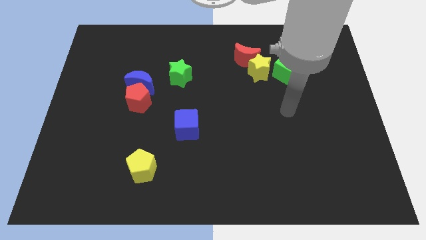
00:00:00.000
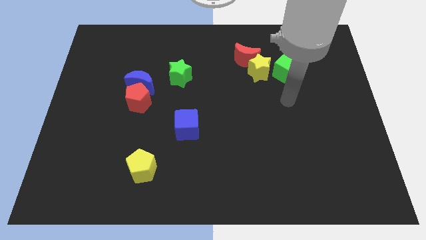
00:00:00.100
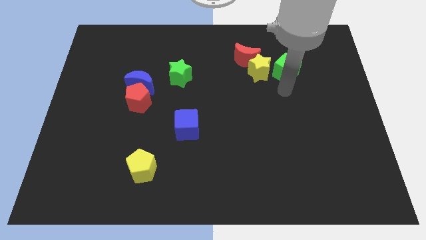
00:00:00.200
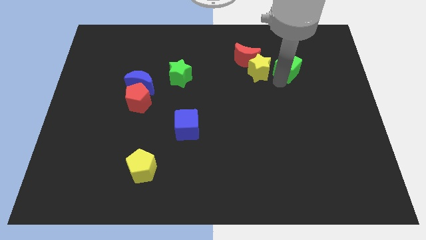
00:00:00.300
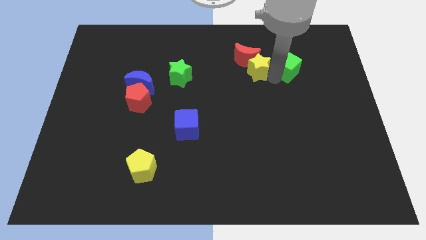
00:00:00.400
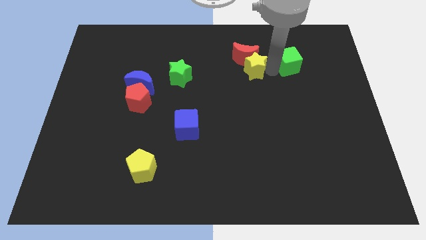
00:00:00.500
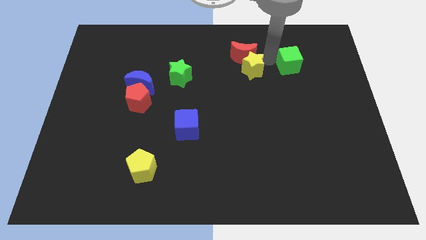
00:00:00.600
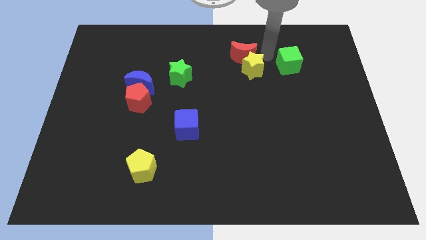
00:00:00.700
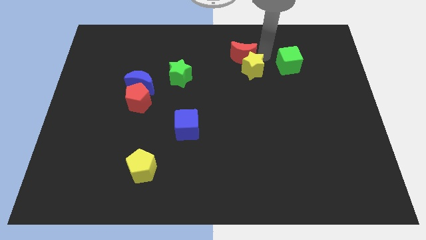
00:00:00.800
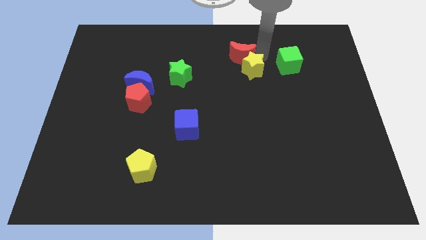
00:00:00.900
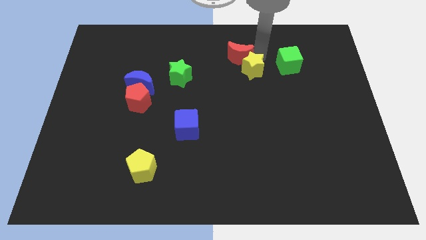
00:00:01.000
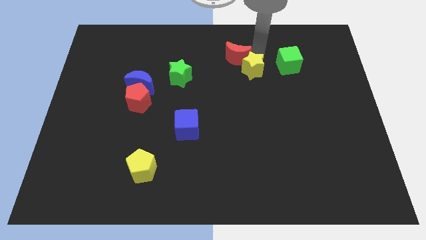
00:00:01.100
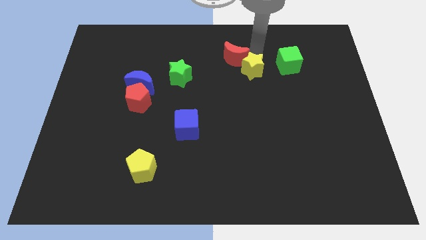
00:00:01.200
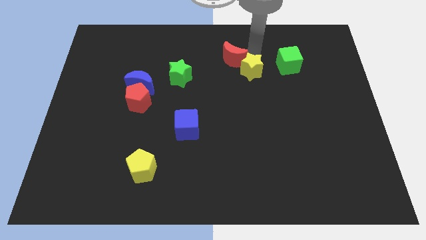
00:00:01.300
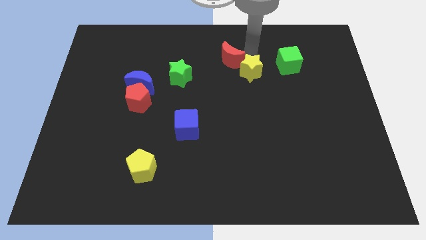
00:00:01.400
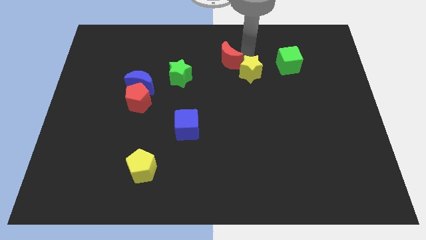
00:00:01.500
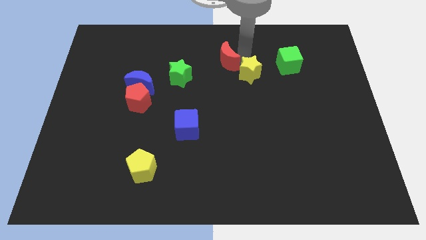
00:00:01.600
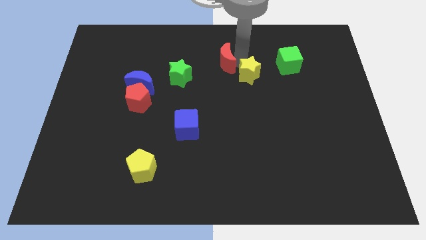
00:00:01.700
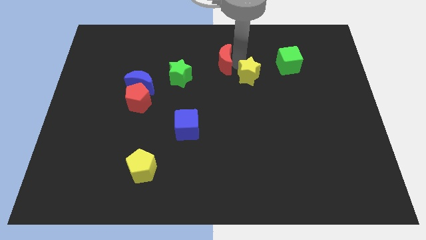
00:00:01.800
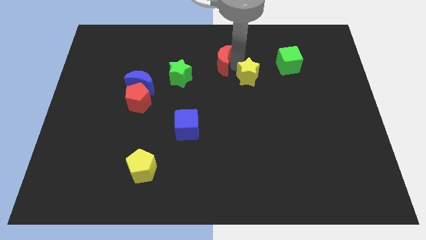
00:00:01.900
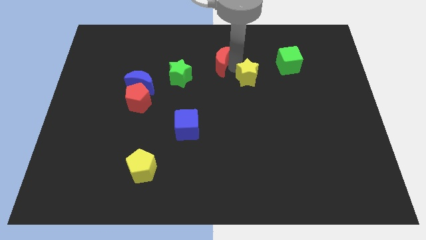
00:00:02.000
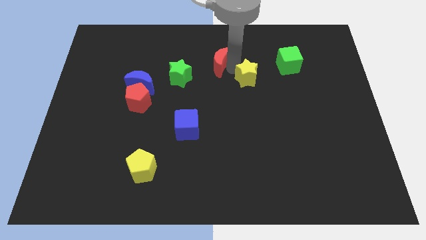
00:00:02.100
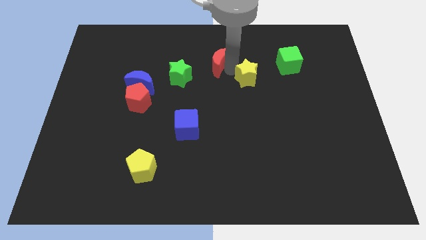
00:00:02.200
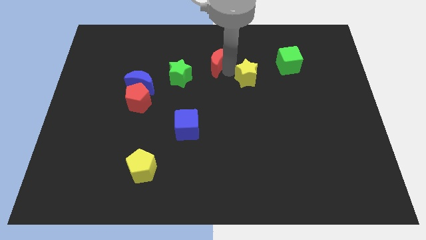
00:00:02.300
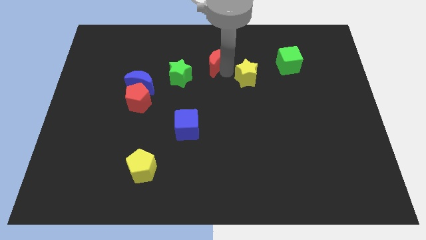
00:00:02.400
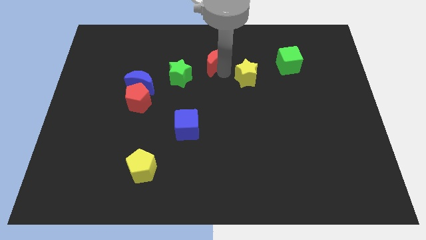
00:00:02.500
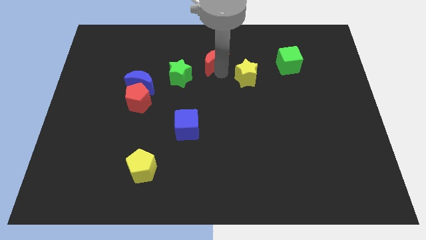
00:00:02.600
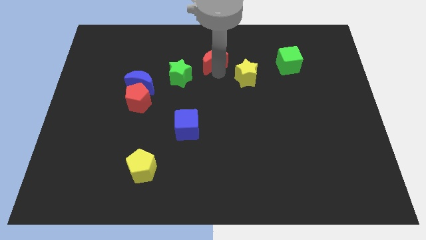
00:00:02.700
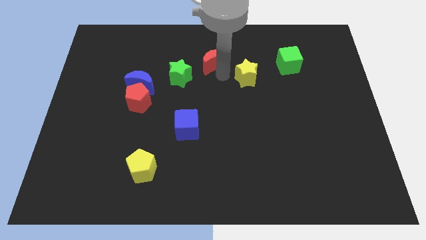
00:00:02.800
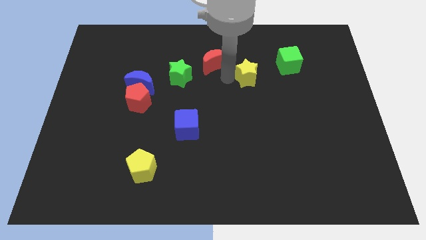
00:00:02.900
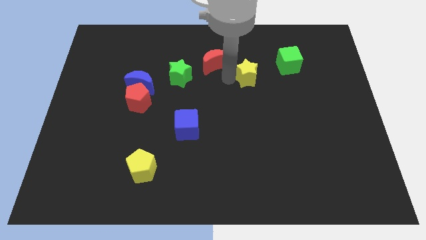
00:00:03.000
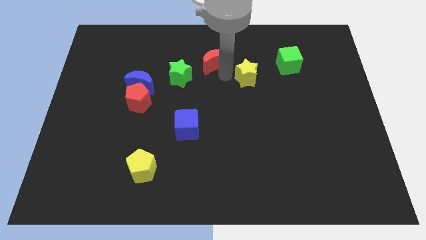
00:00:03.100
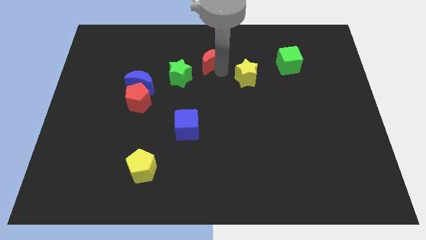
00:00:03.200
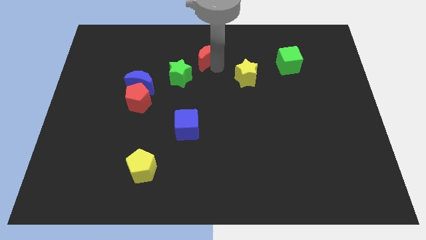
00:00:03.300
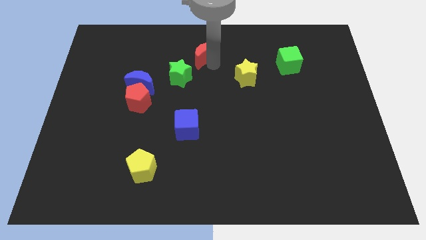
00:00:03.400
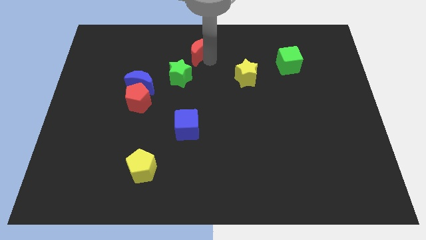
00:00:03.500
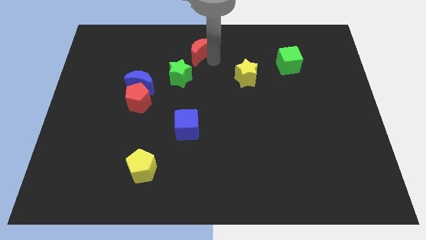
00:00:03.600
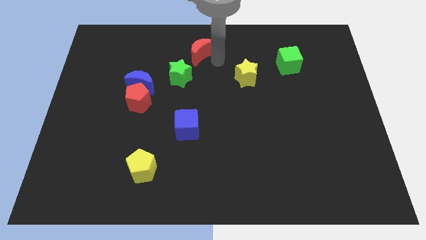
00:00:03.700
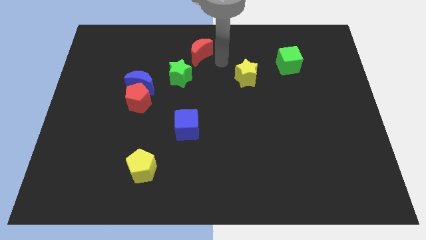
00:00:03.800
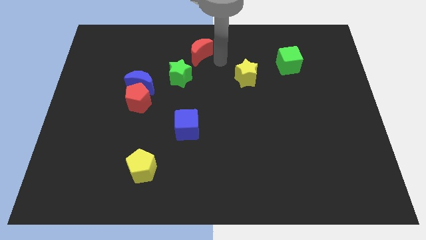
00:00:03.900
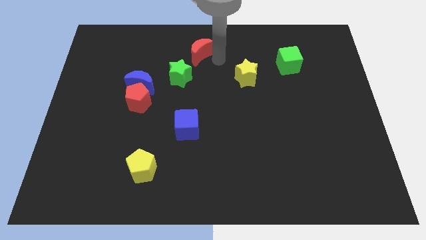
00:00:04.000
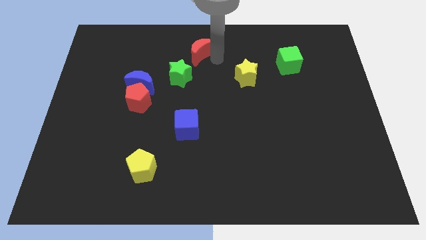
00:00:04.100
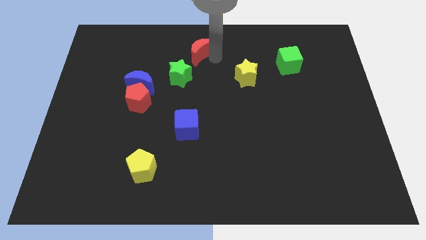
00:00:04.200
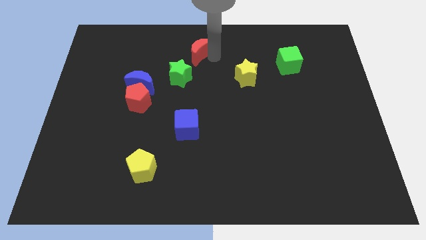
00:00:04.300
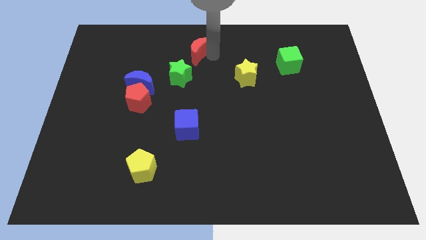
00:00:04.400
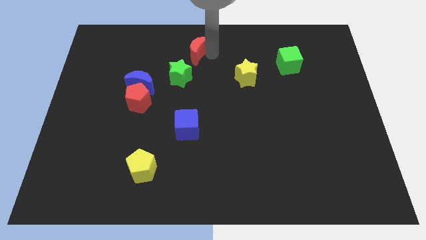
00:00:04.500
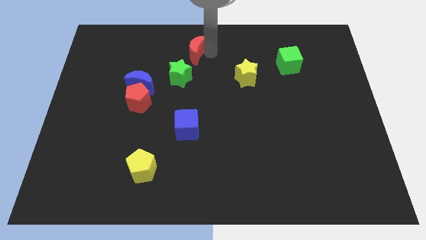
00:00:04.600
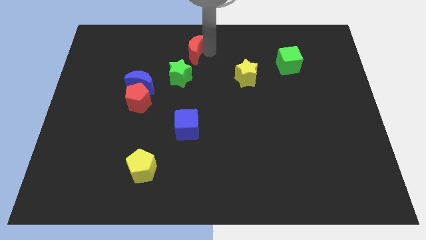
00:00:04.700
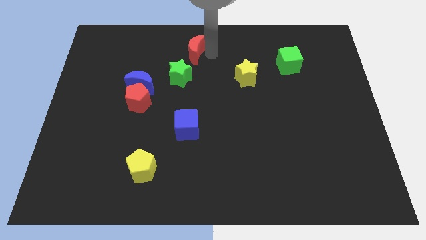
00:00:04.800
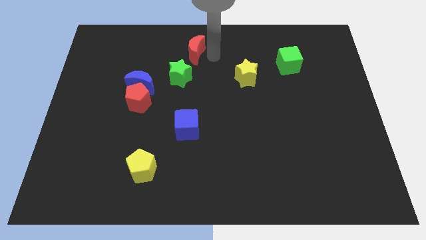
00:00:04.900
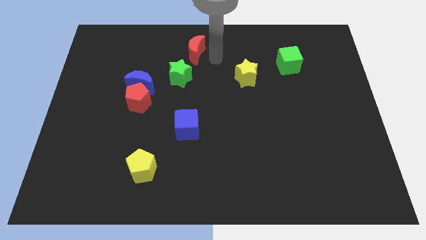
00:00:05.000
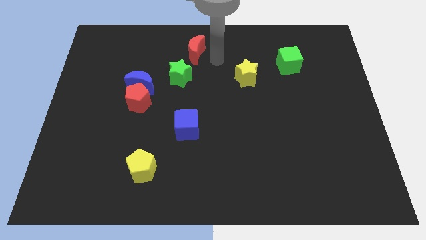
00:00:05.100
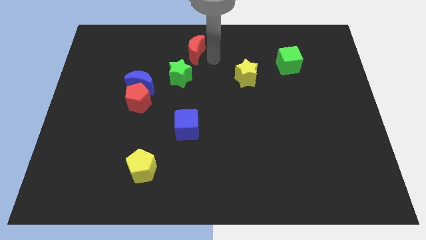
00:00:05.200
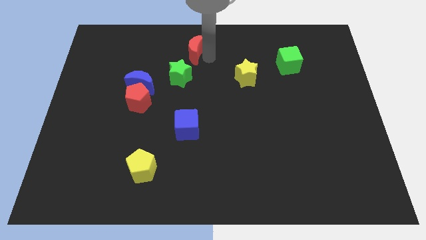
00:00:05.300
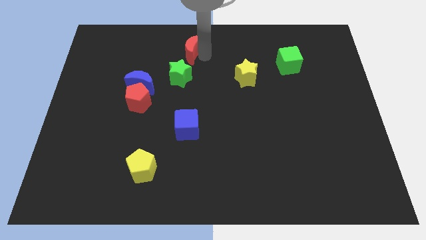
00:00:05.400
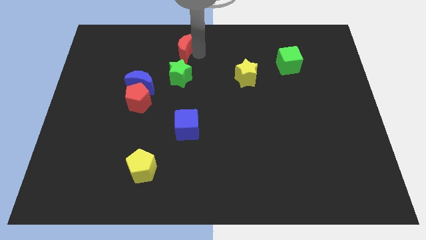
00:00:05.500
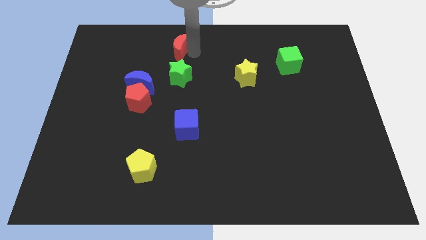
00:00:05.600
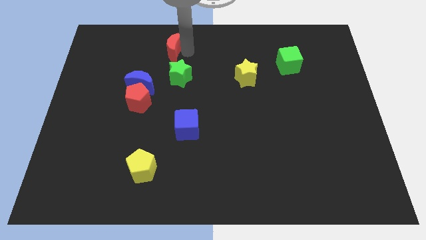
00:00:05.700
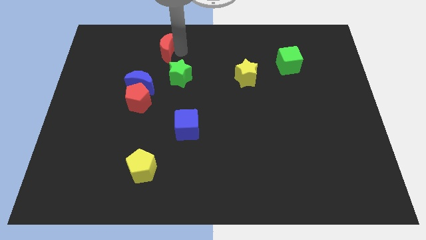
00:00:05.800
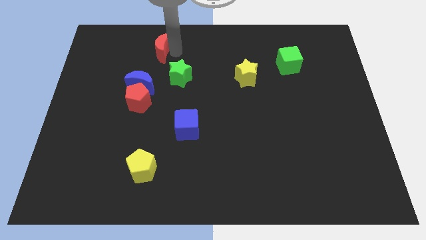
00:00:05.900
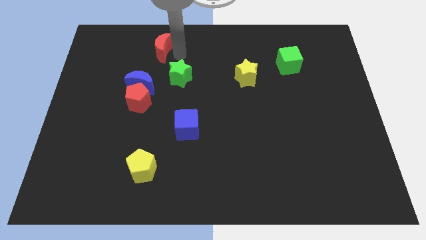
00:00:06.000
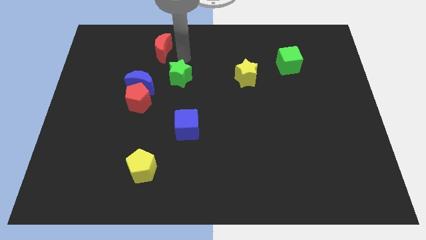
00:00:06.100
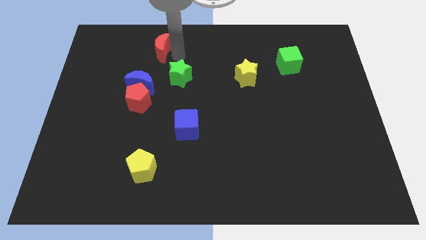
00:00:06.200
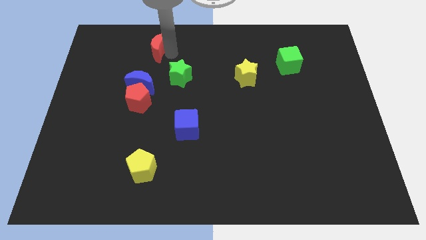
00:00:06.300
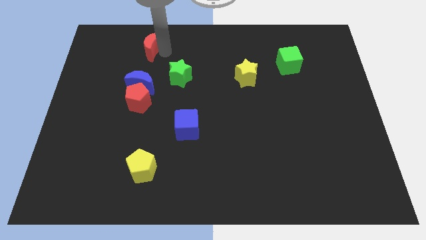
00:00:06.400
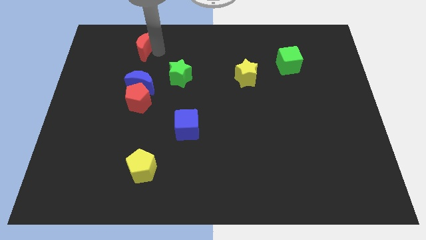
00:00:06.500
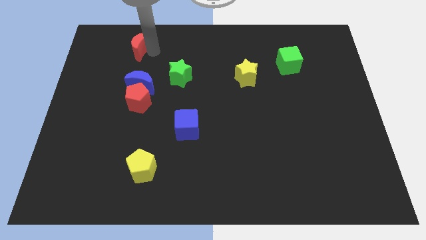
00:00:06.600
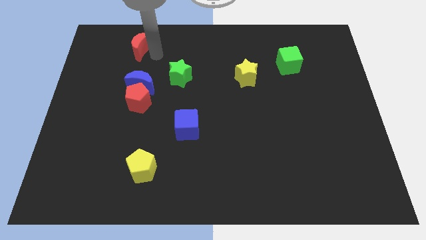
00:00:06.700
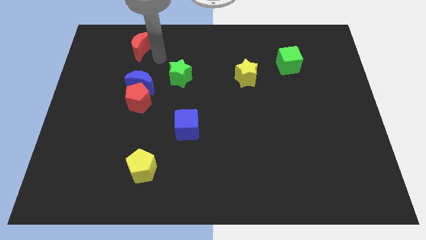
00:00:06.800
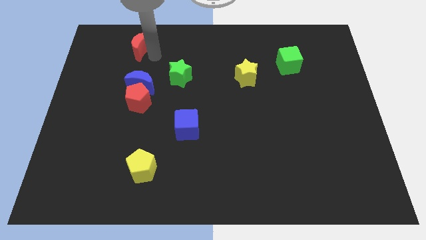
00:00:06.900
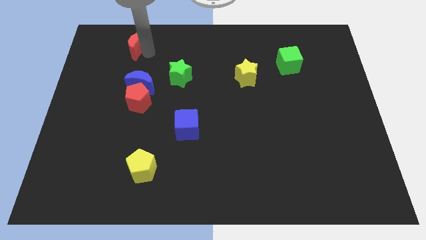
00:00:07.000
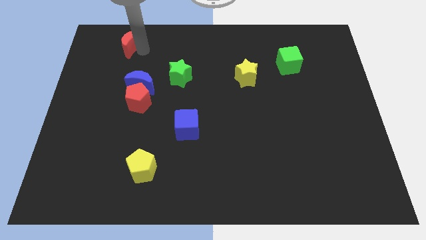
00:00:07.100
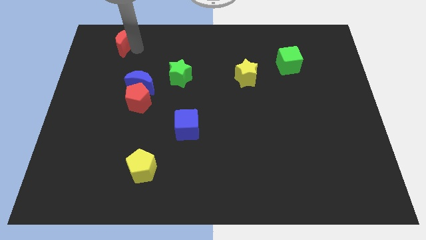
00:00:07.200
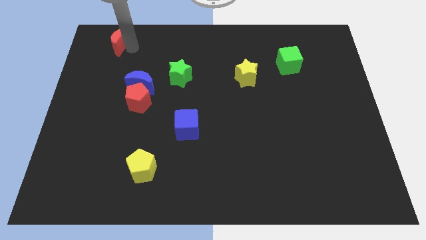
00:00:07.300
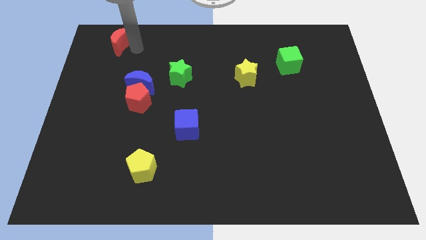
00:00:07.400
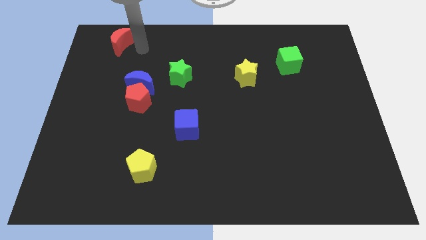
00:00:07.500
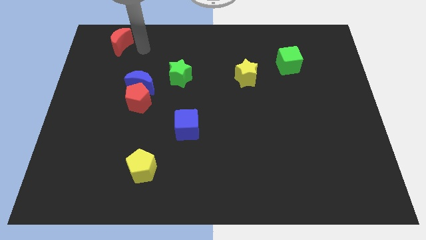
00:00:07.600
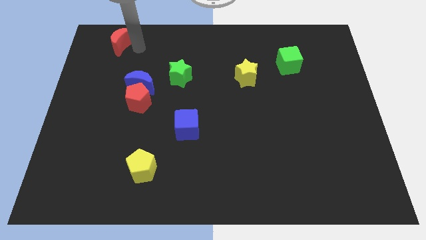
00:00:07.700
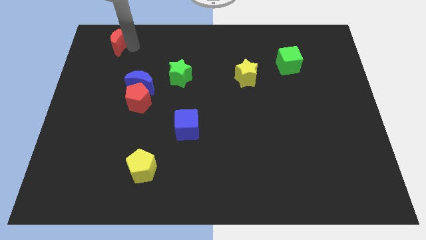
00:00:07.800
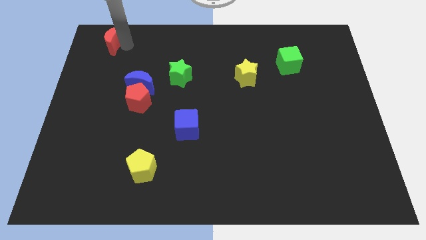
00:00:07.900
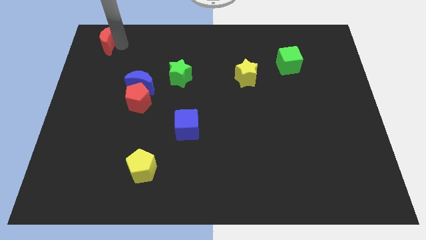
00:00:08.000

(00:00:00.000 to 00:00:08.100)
put the red moon to the top left corner
